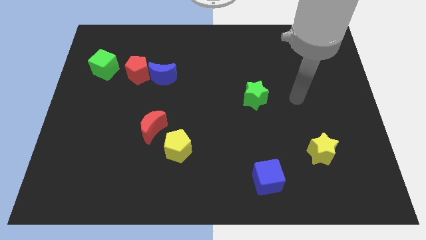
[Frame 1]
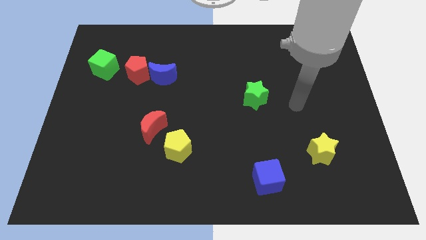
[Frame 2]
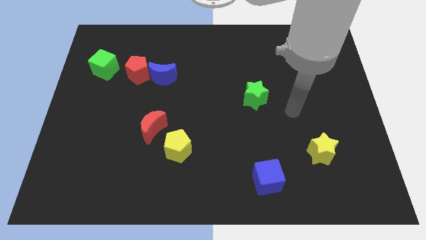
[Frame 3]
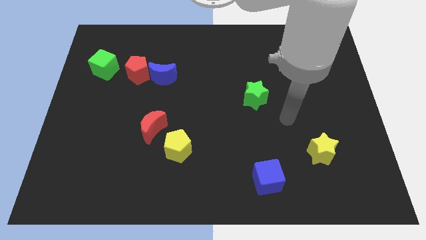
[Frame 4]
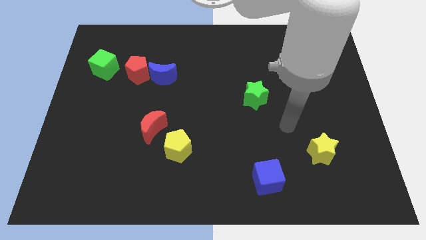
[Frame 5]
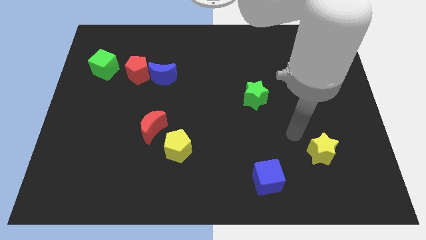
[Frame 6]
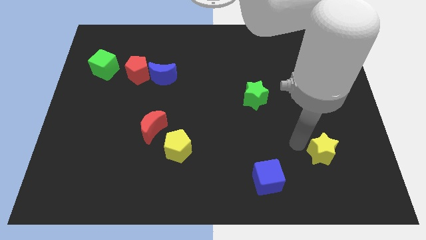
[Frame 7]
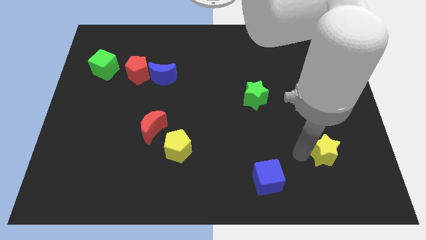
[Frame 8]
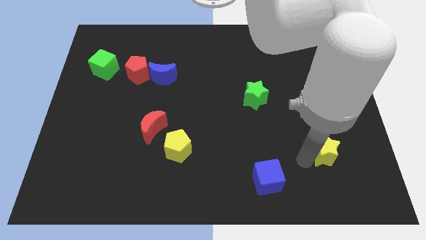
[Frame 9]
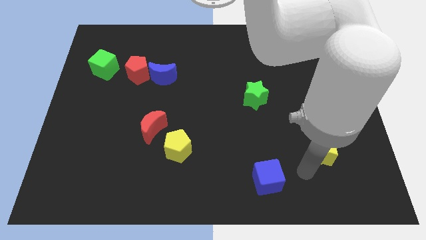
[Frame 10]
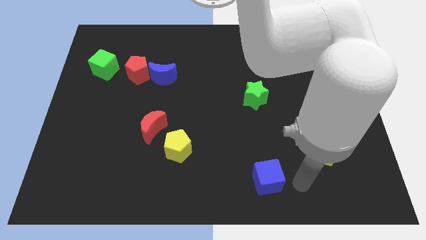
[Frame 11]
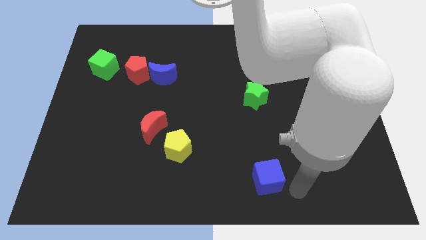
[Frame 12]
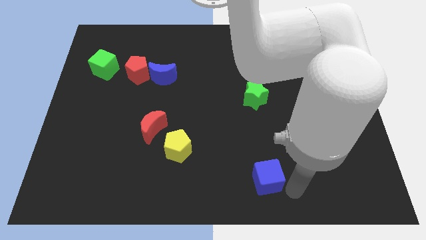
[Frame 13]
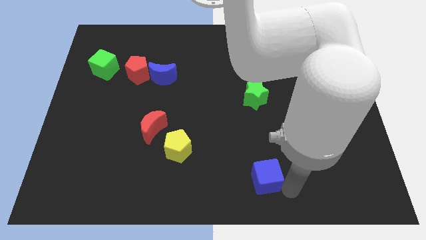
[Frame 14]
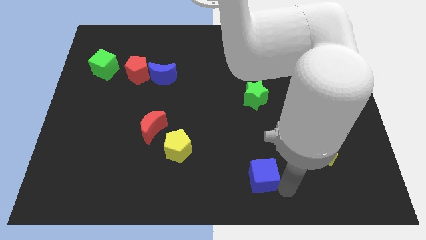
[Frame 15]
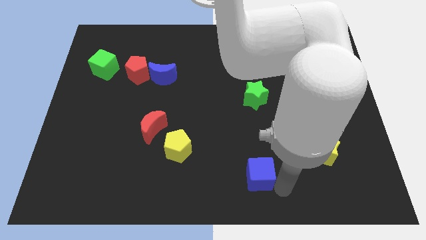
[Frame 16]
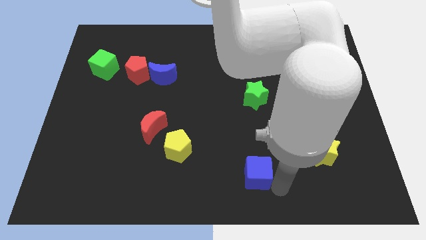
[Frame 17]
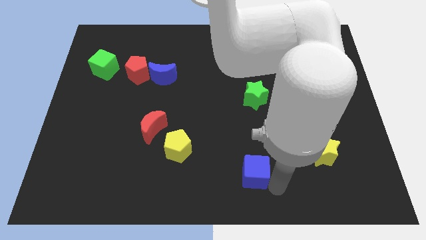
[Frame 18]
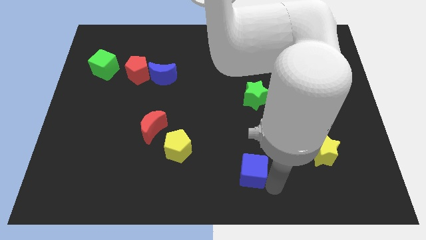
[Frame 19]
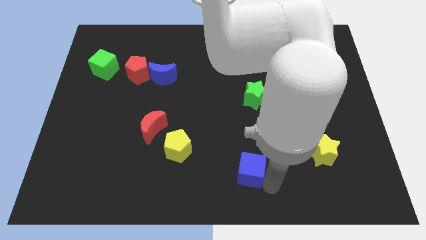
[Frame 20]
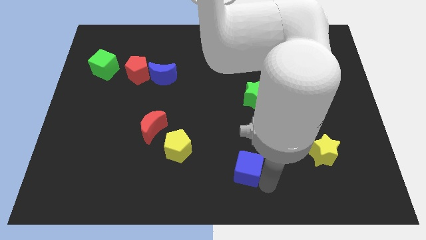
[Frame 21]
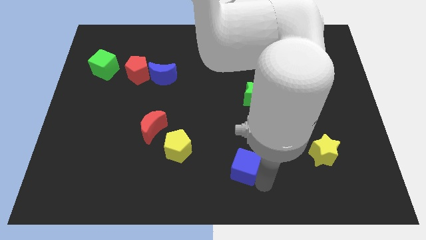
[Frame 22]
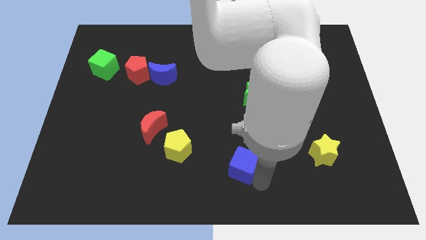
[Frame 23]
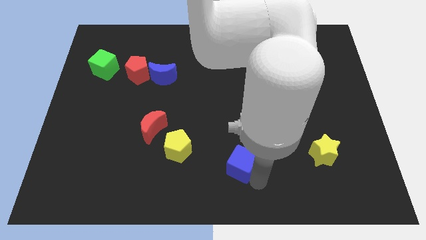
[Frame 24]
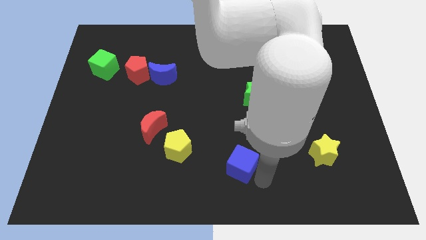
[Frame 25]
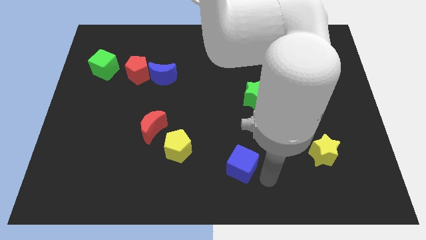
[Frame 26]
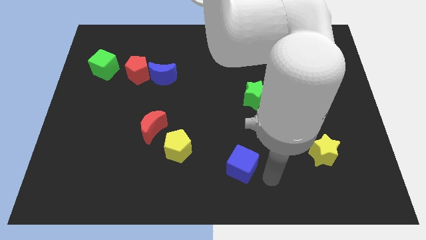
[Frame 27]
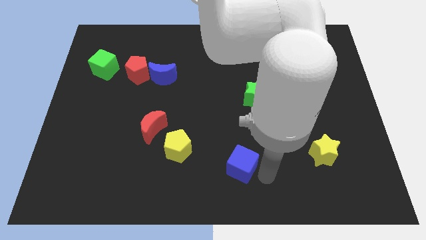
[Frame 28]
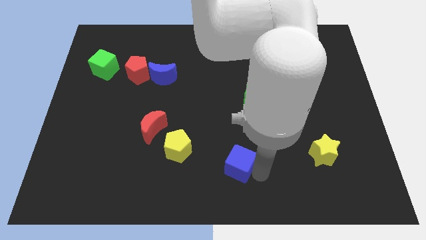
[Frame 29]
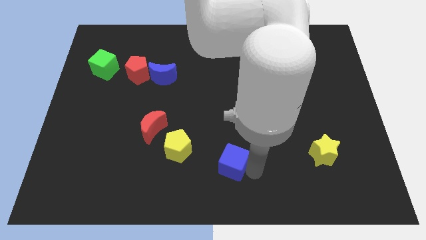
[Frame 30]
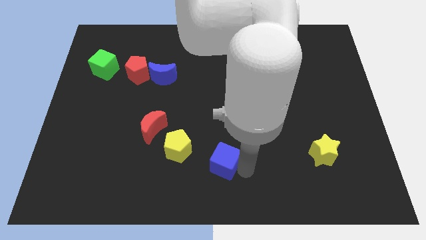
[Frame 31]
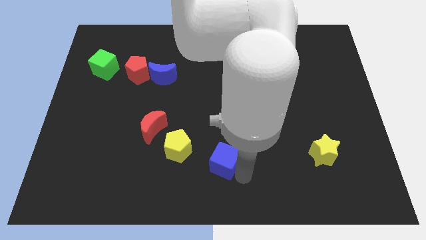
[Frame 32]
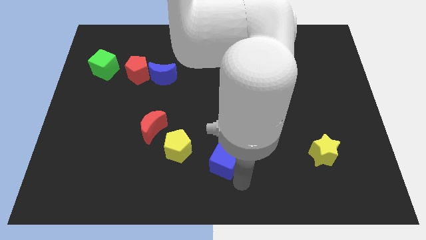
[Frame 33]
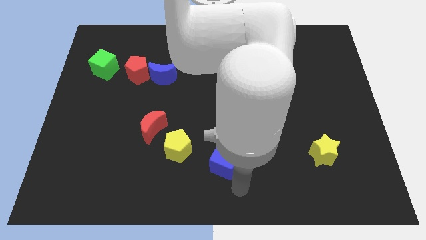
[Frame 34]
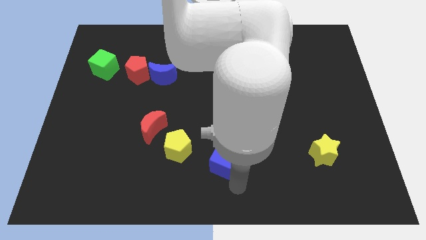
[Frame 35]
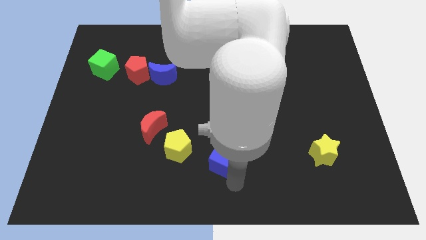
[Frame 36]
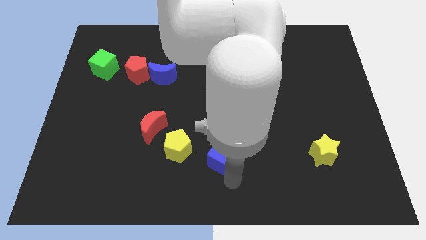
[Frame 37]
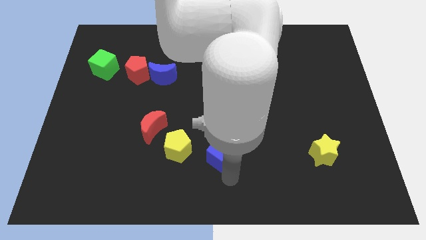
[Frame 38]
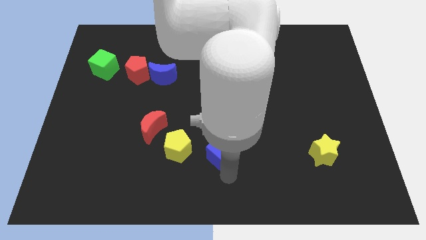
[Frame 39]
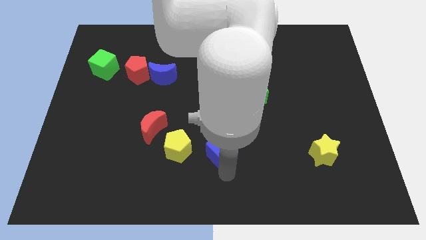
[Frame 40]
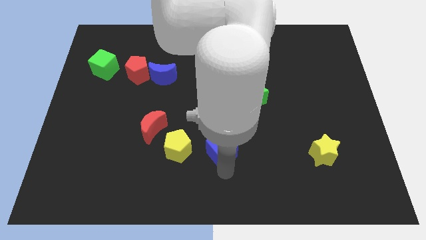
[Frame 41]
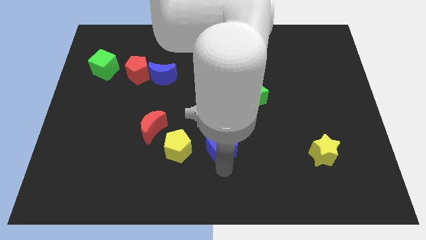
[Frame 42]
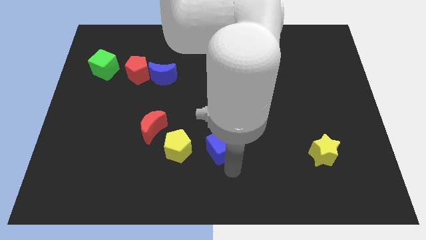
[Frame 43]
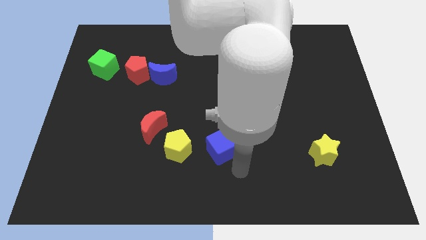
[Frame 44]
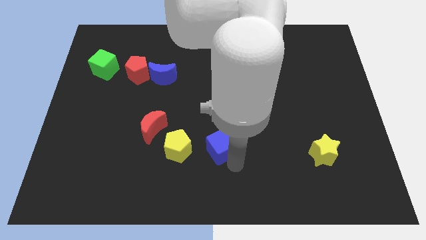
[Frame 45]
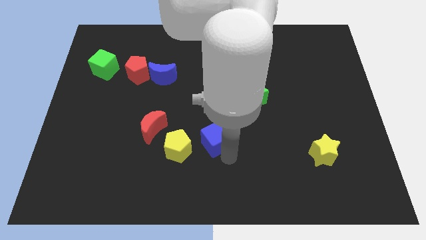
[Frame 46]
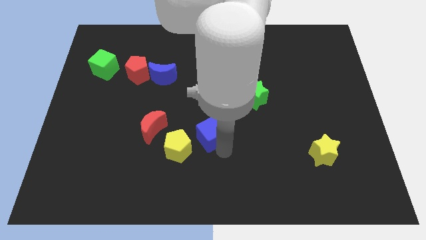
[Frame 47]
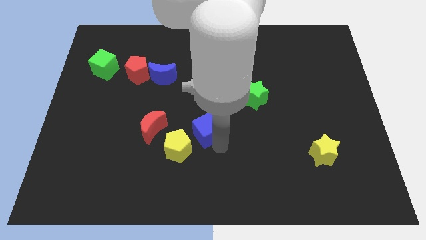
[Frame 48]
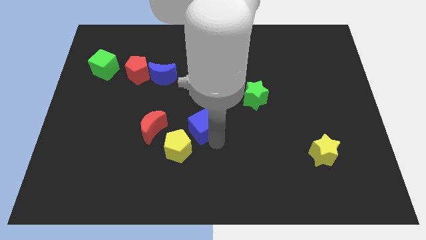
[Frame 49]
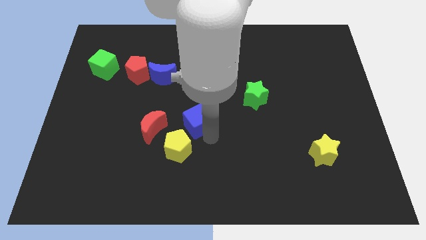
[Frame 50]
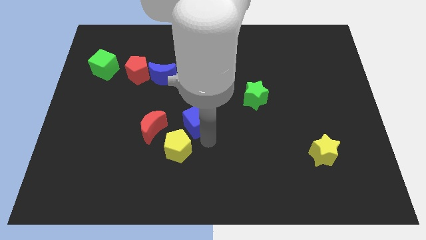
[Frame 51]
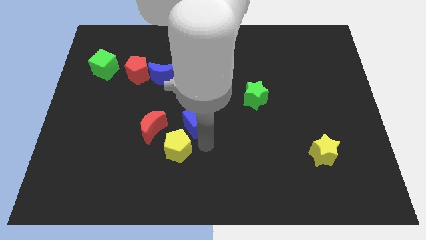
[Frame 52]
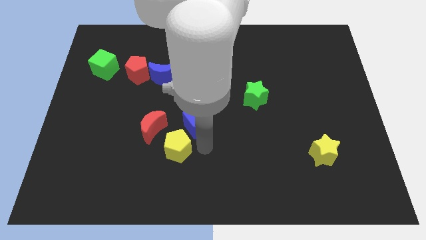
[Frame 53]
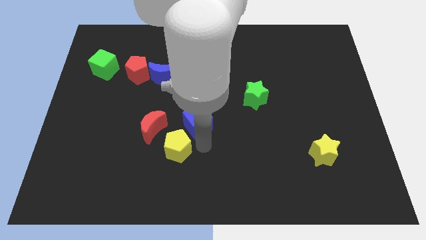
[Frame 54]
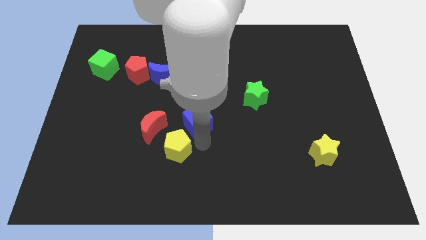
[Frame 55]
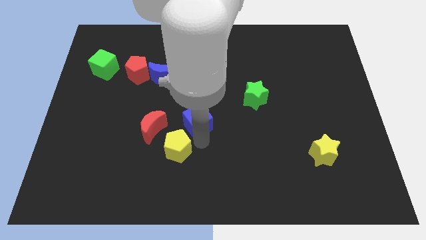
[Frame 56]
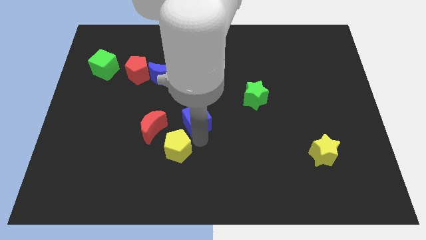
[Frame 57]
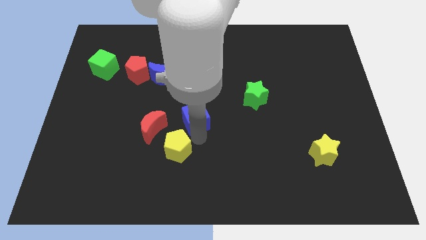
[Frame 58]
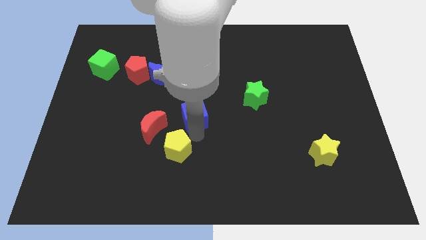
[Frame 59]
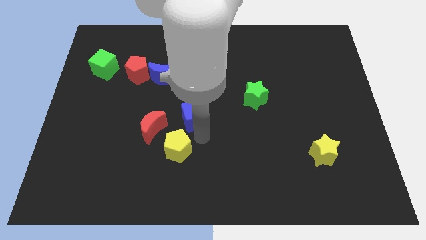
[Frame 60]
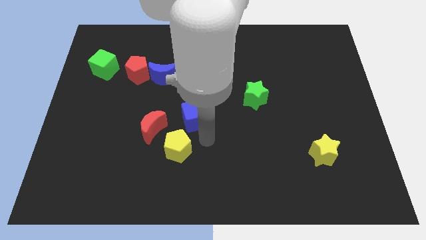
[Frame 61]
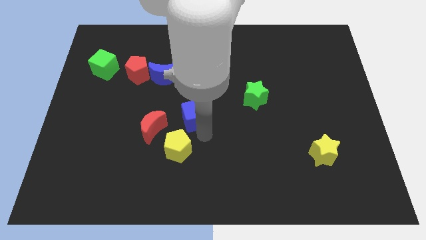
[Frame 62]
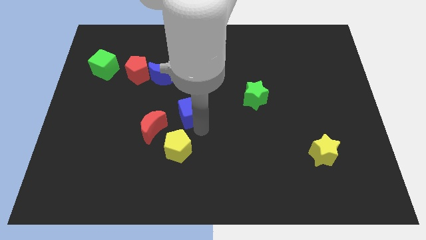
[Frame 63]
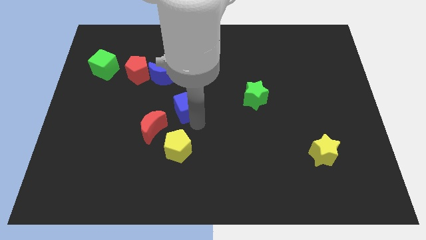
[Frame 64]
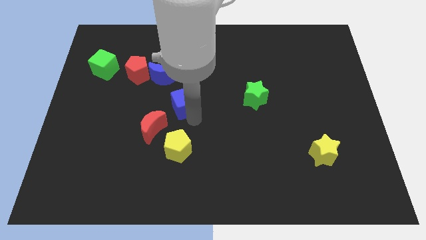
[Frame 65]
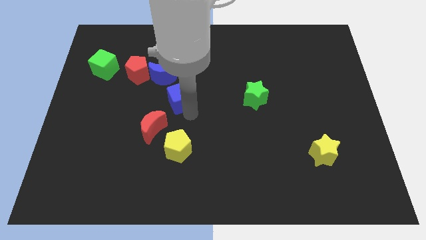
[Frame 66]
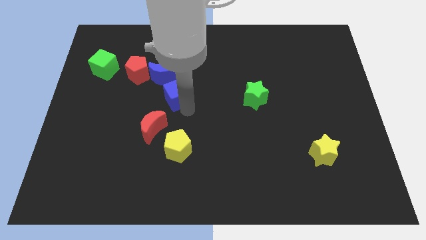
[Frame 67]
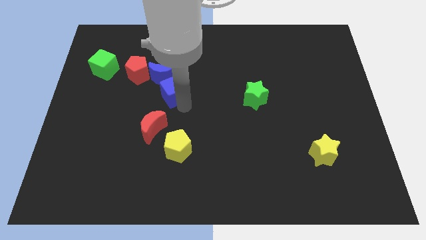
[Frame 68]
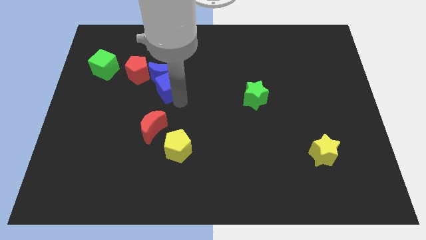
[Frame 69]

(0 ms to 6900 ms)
slide the blue cube next to the blue moon
